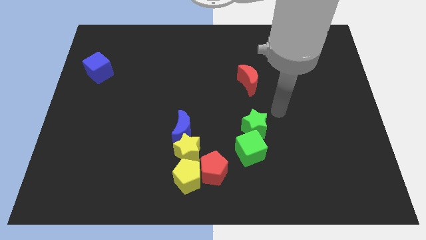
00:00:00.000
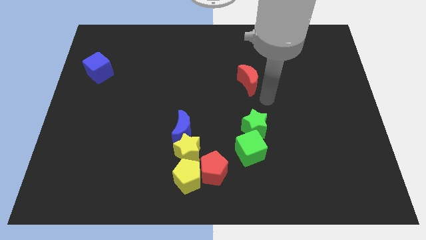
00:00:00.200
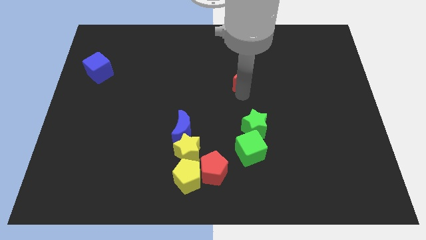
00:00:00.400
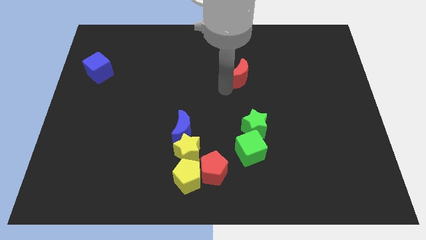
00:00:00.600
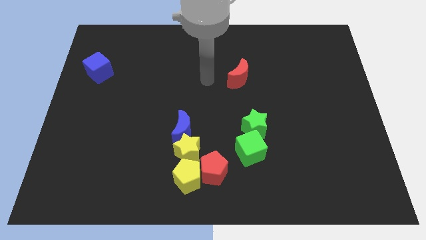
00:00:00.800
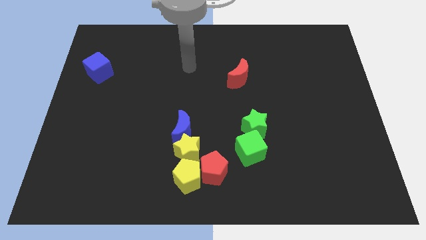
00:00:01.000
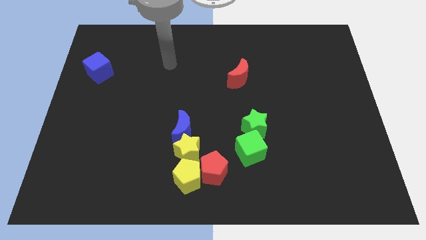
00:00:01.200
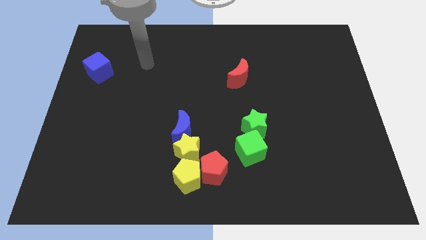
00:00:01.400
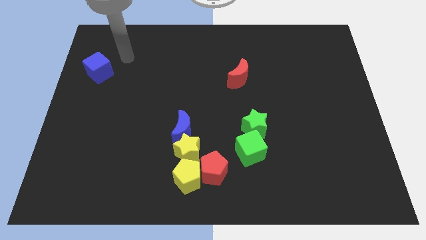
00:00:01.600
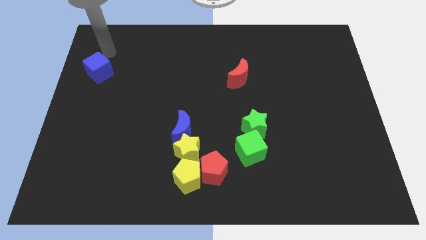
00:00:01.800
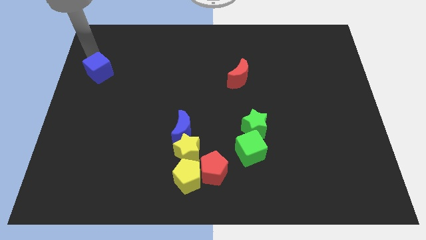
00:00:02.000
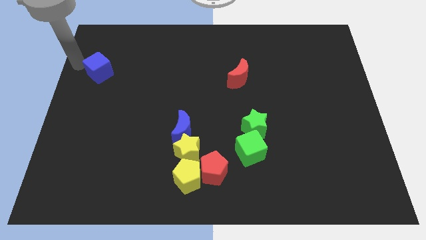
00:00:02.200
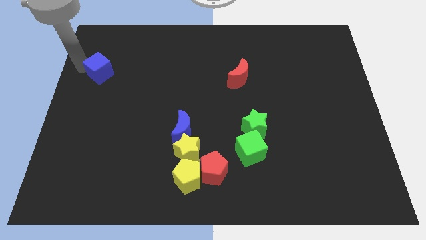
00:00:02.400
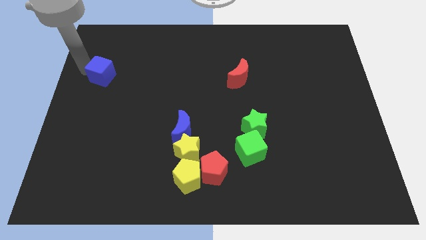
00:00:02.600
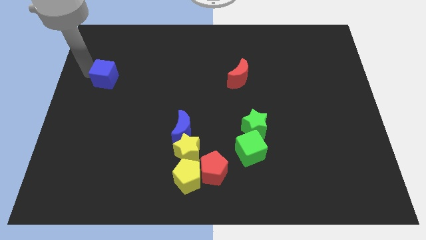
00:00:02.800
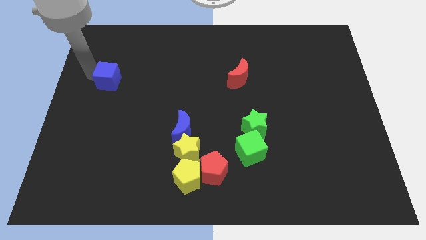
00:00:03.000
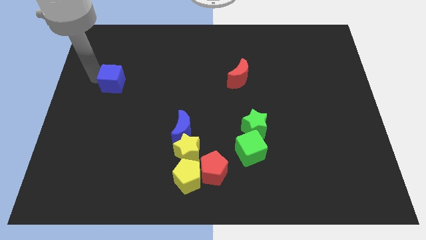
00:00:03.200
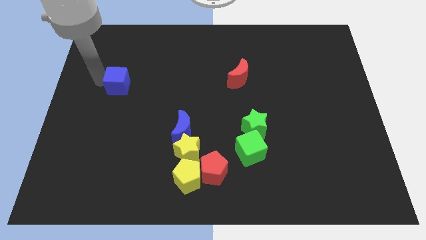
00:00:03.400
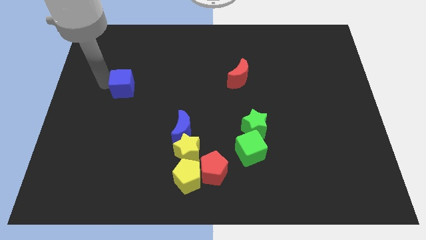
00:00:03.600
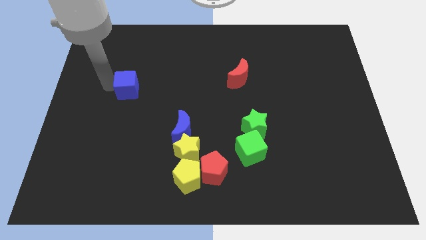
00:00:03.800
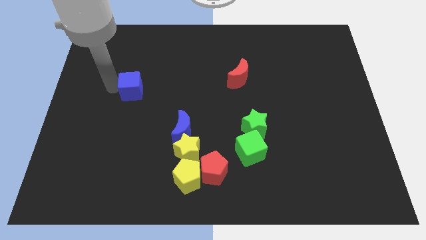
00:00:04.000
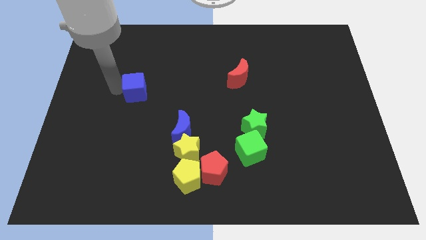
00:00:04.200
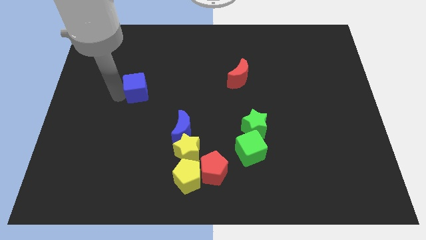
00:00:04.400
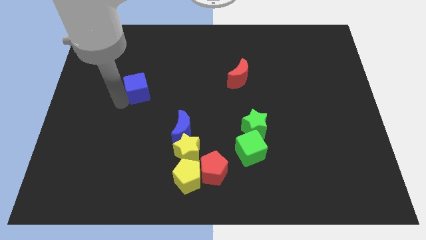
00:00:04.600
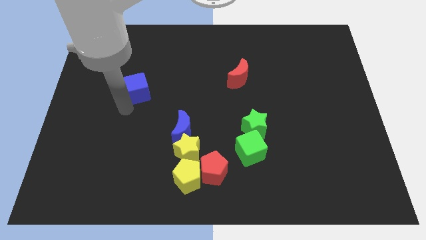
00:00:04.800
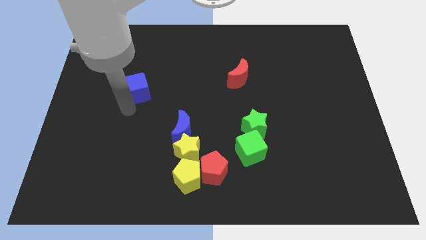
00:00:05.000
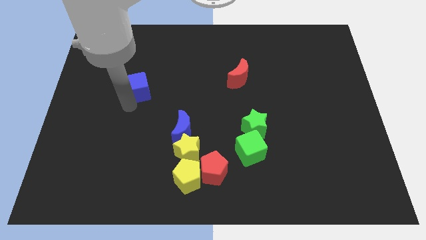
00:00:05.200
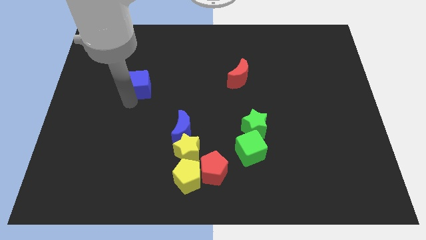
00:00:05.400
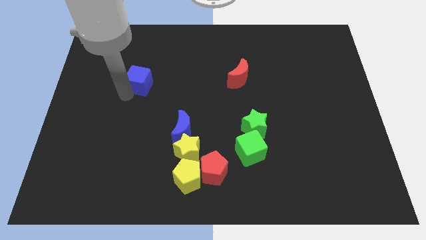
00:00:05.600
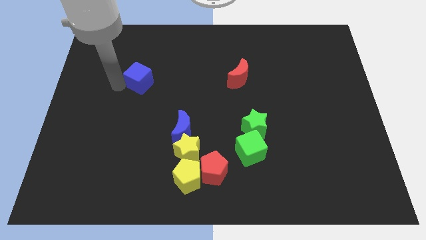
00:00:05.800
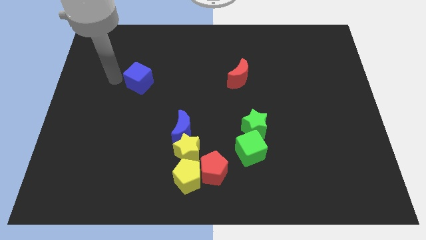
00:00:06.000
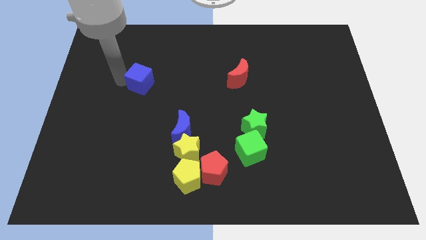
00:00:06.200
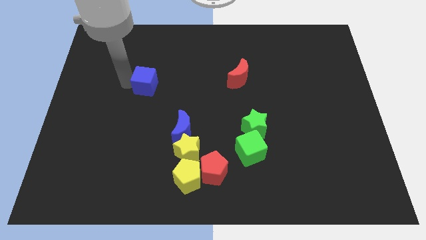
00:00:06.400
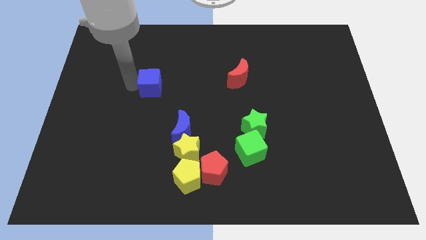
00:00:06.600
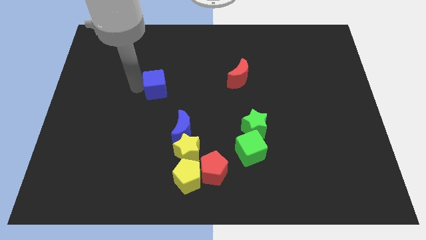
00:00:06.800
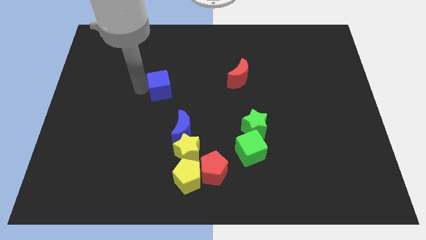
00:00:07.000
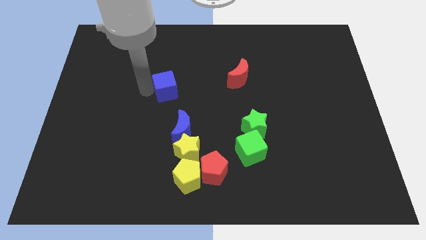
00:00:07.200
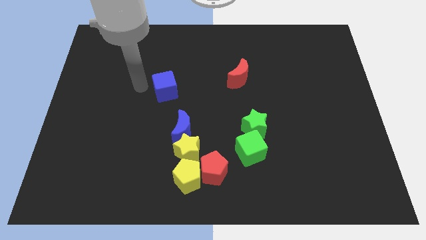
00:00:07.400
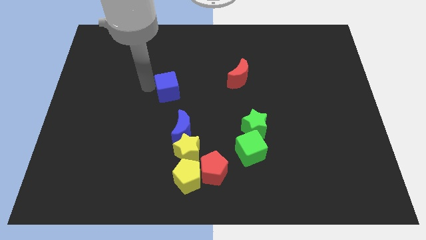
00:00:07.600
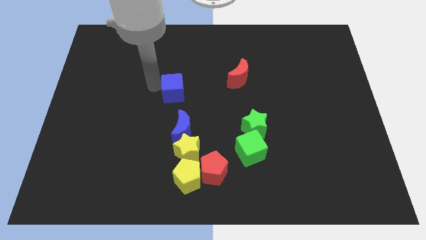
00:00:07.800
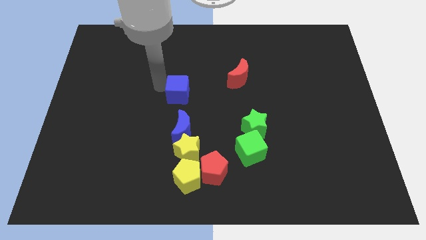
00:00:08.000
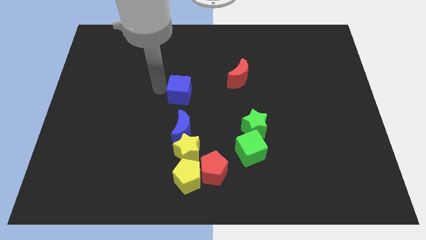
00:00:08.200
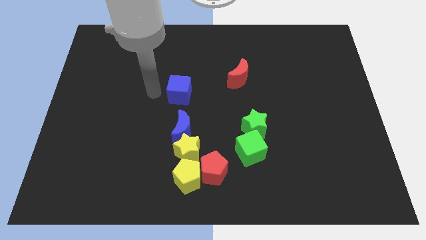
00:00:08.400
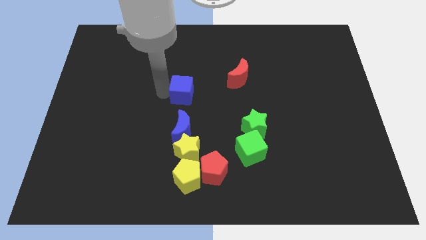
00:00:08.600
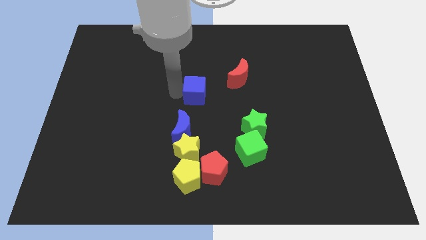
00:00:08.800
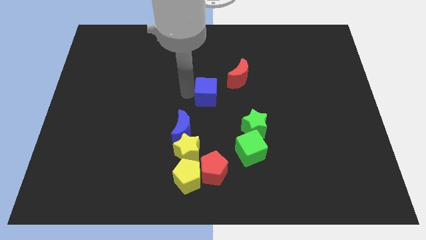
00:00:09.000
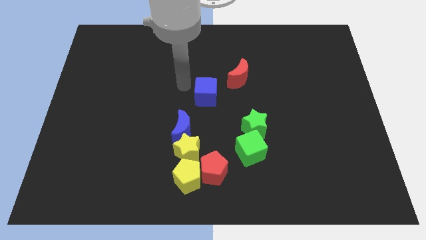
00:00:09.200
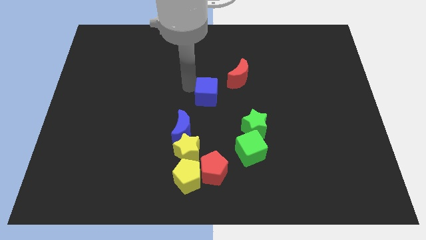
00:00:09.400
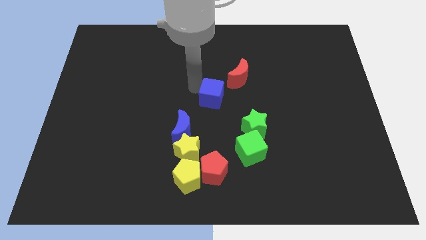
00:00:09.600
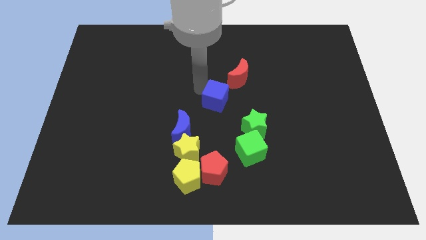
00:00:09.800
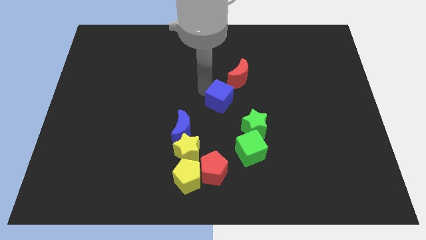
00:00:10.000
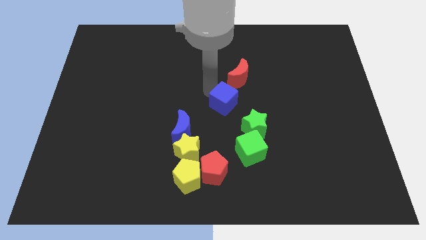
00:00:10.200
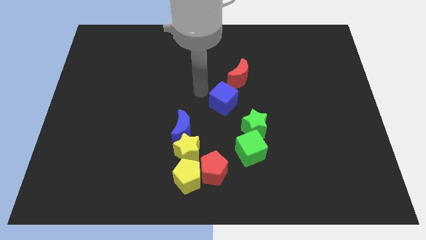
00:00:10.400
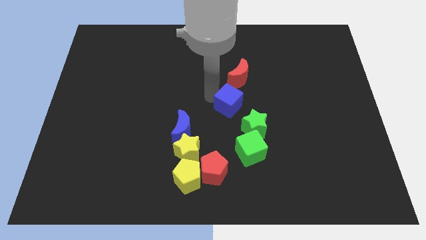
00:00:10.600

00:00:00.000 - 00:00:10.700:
push the blue cube above the green cube

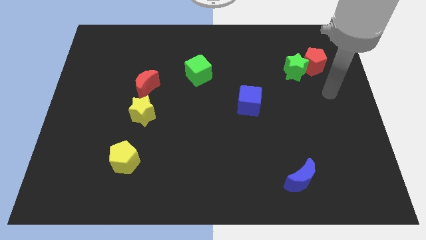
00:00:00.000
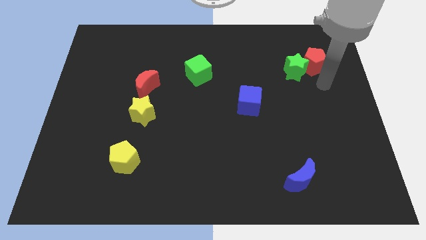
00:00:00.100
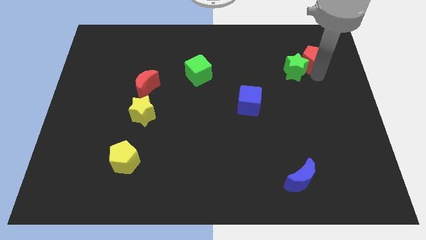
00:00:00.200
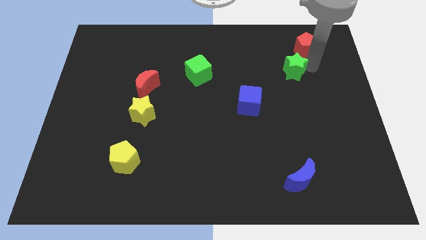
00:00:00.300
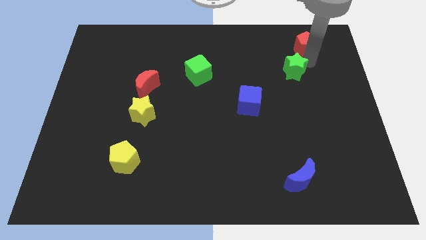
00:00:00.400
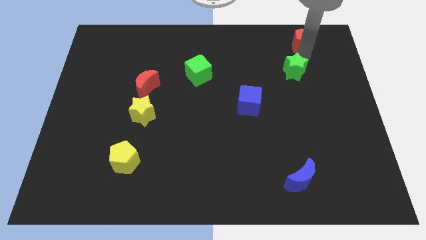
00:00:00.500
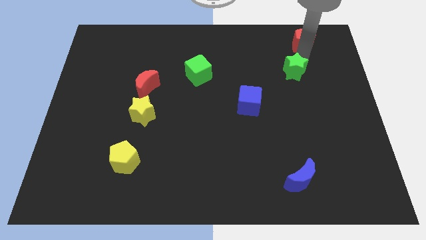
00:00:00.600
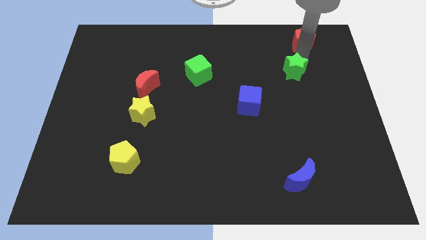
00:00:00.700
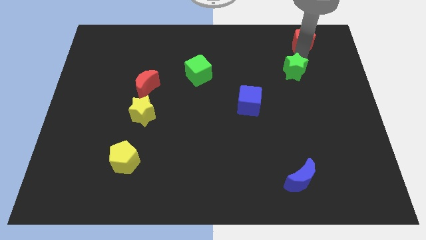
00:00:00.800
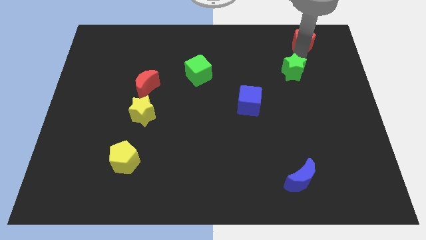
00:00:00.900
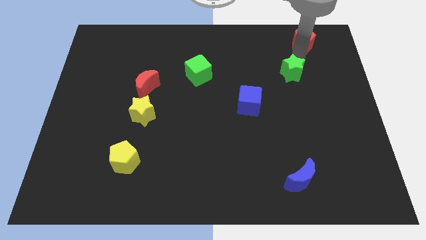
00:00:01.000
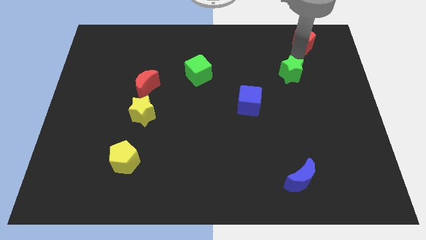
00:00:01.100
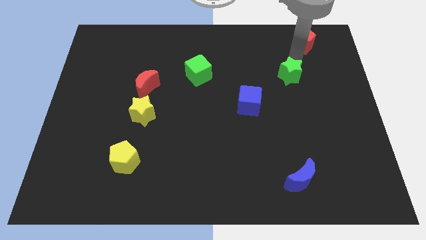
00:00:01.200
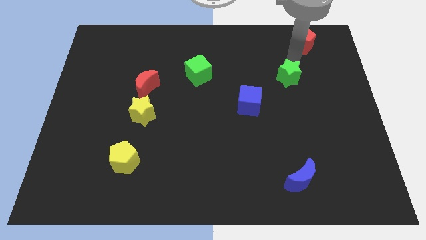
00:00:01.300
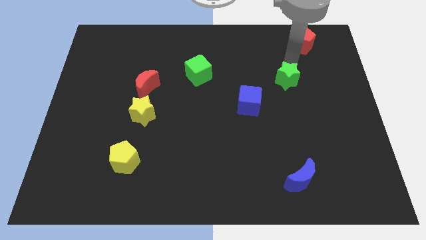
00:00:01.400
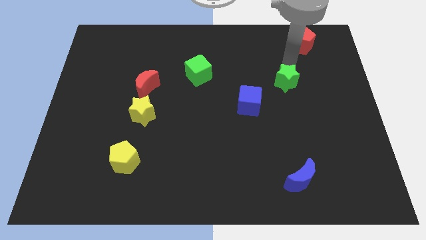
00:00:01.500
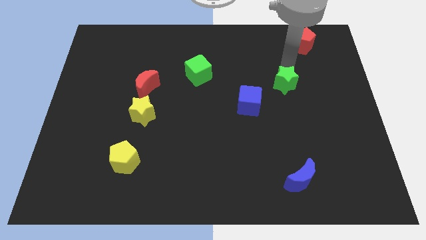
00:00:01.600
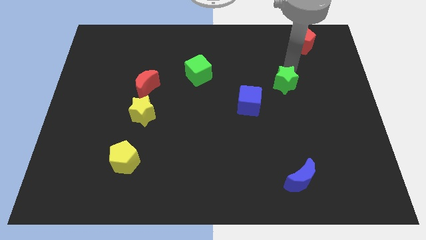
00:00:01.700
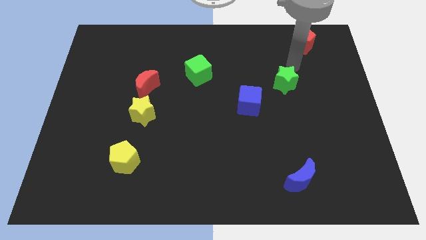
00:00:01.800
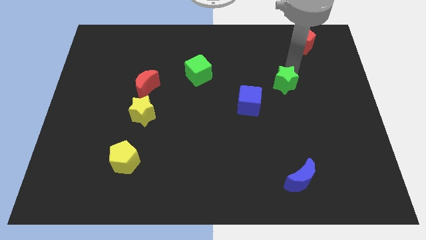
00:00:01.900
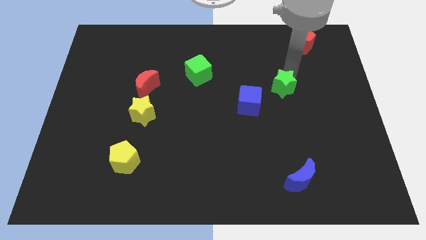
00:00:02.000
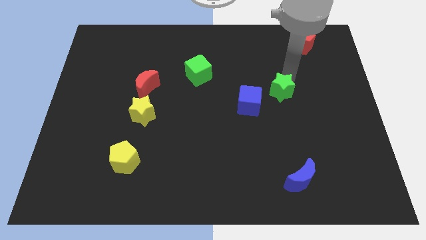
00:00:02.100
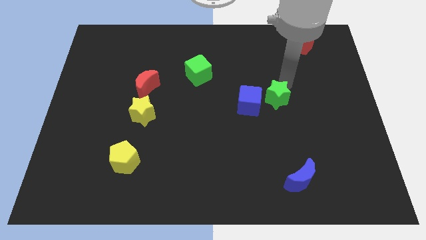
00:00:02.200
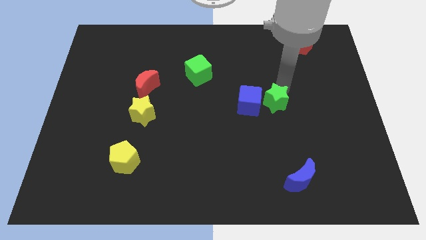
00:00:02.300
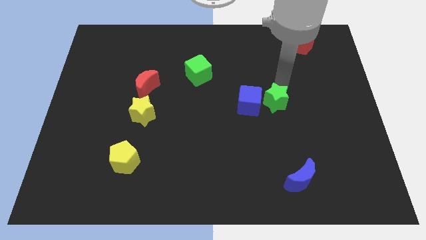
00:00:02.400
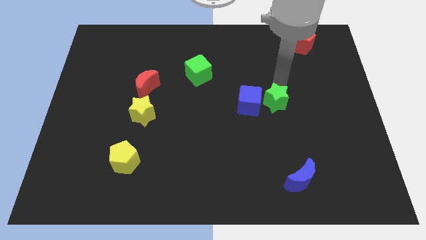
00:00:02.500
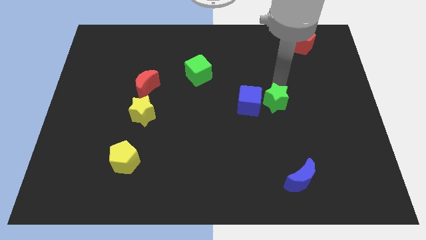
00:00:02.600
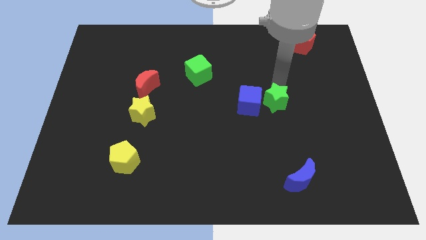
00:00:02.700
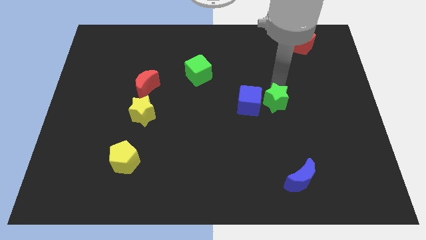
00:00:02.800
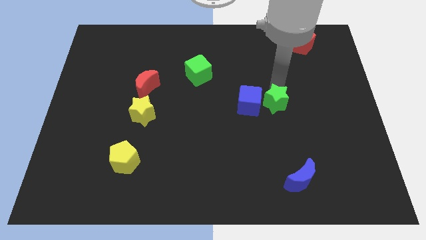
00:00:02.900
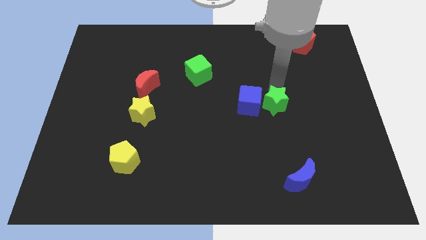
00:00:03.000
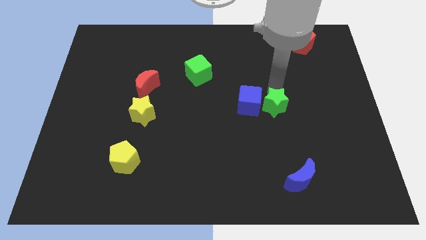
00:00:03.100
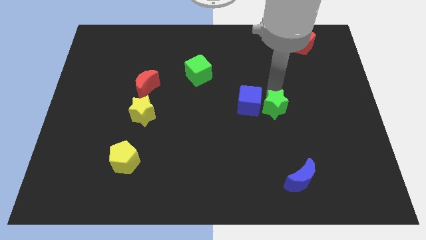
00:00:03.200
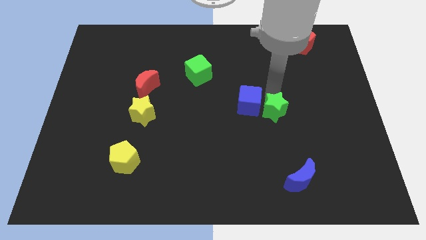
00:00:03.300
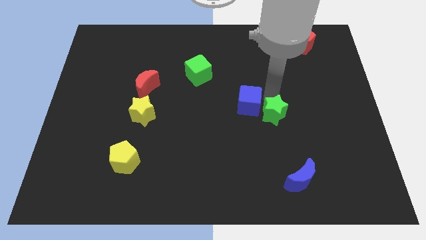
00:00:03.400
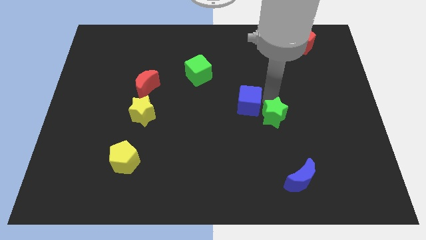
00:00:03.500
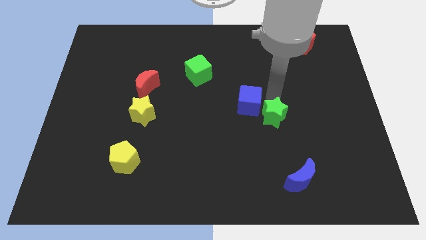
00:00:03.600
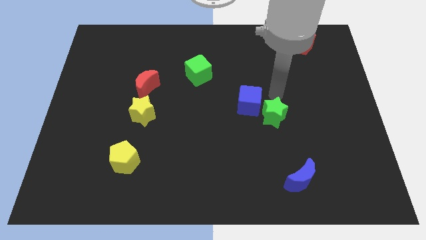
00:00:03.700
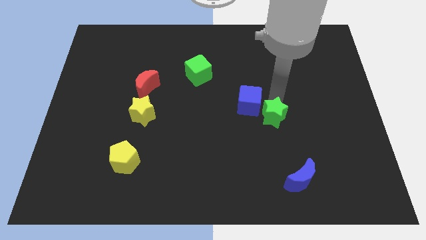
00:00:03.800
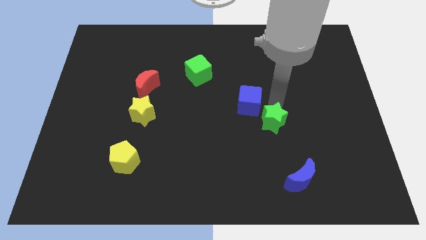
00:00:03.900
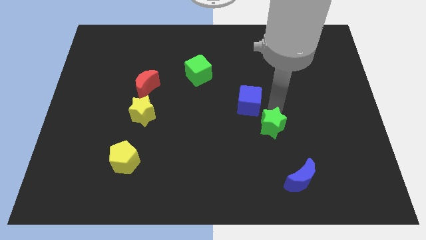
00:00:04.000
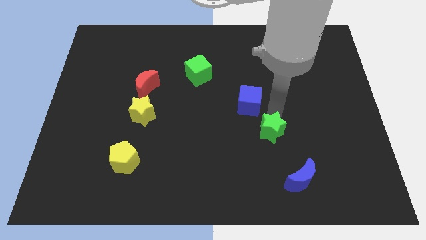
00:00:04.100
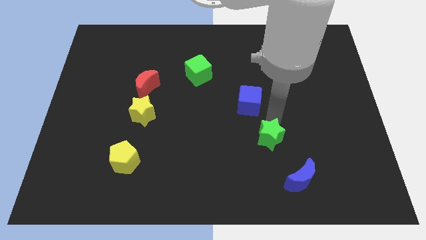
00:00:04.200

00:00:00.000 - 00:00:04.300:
slide the green star to the top left side of the blue moon
